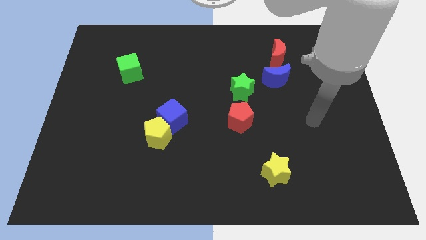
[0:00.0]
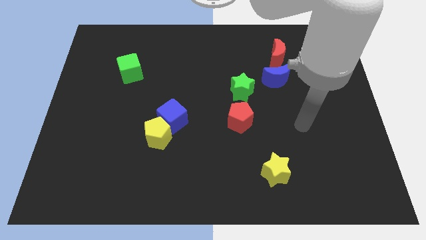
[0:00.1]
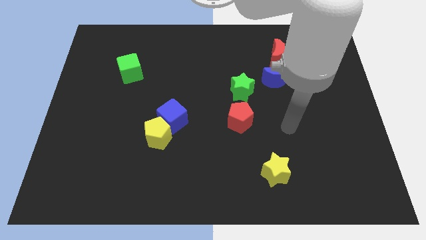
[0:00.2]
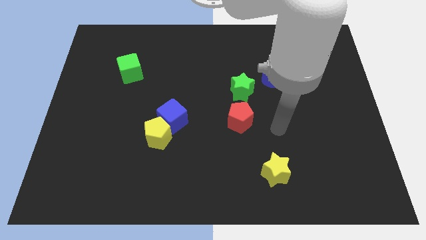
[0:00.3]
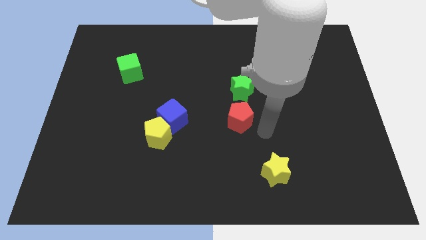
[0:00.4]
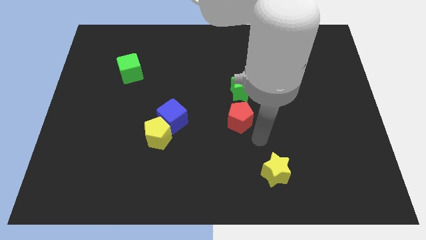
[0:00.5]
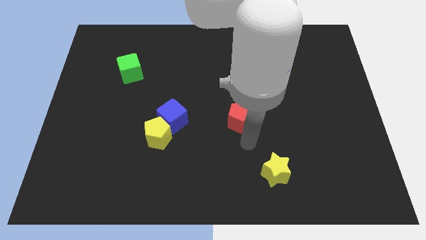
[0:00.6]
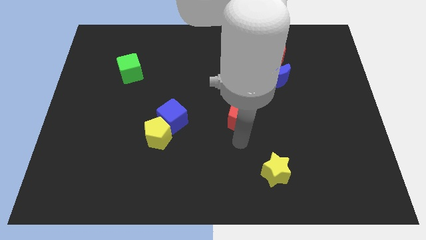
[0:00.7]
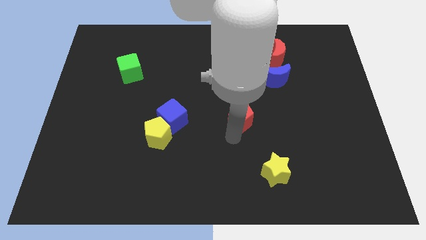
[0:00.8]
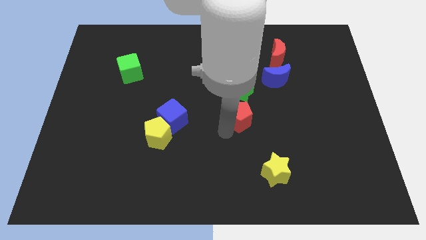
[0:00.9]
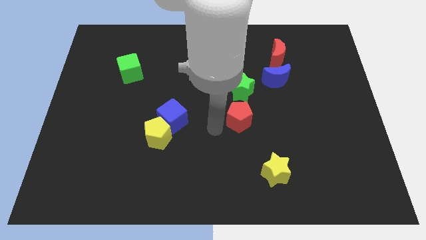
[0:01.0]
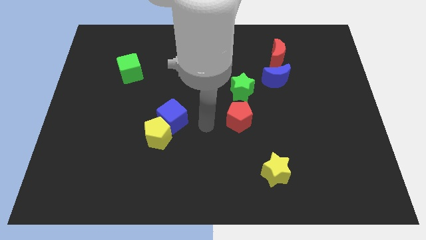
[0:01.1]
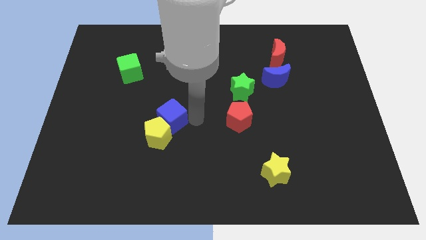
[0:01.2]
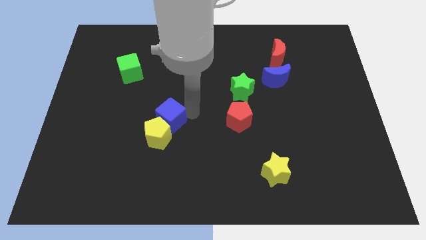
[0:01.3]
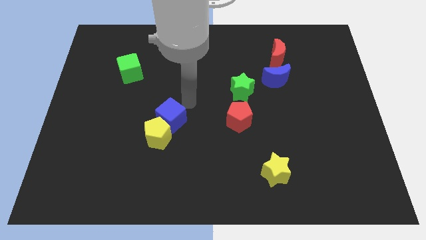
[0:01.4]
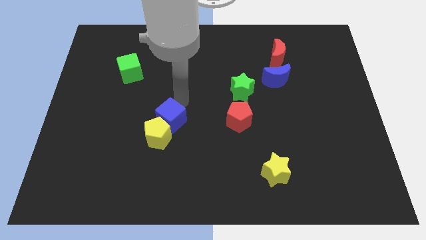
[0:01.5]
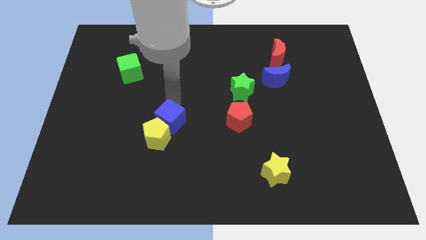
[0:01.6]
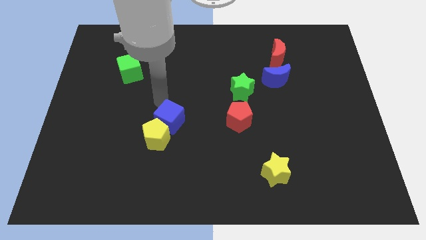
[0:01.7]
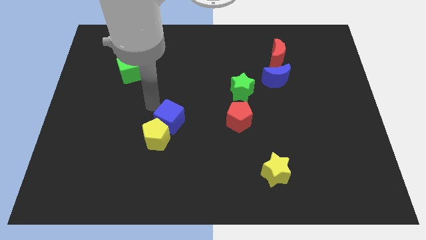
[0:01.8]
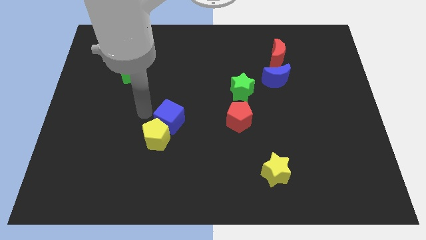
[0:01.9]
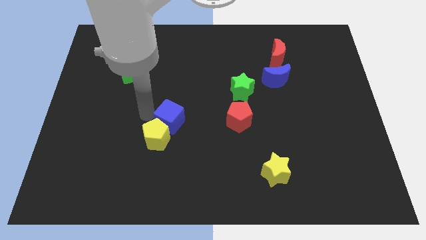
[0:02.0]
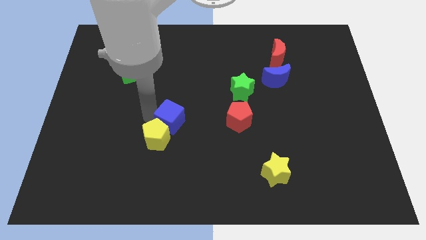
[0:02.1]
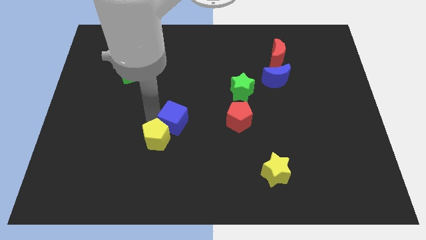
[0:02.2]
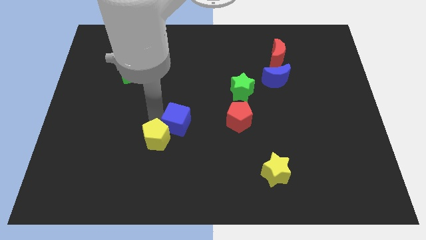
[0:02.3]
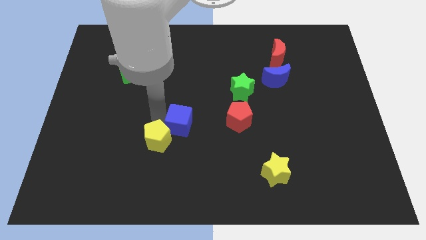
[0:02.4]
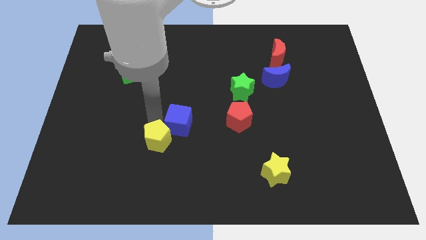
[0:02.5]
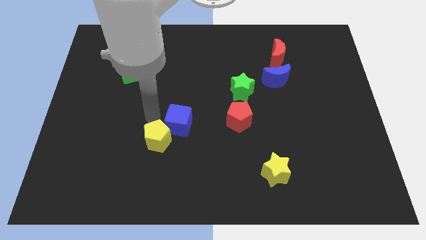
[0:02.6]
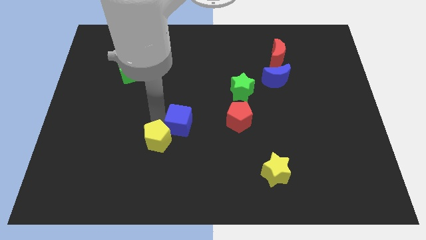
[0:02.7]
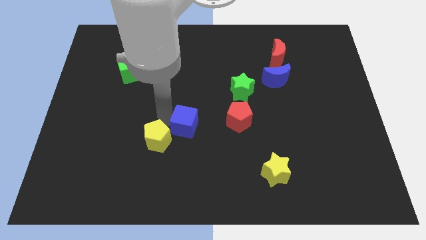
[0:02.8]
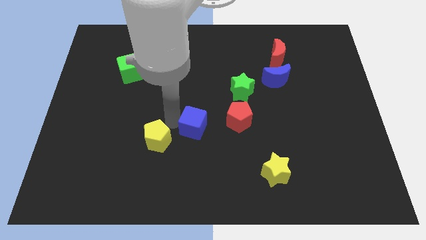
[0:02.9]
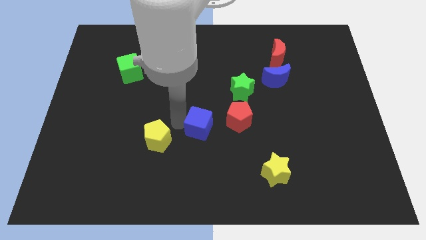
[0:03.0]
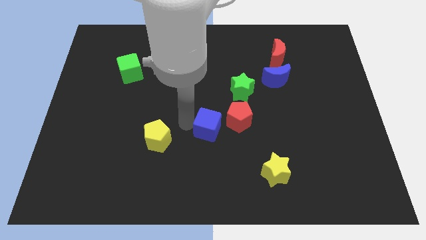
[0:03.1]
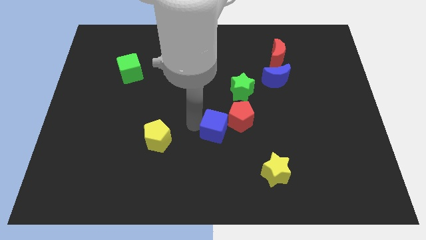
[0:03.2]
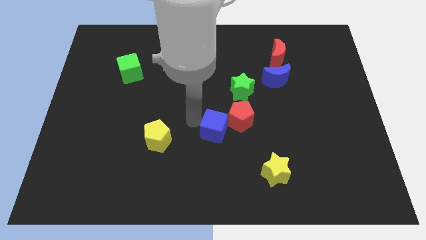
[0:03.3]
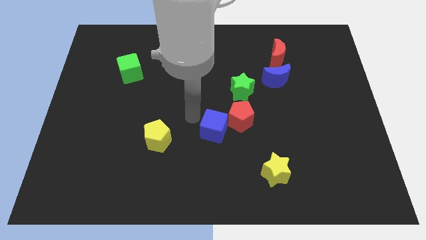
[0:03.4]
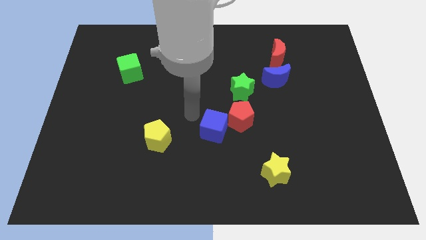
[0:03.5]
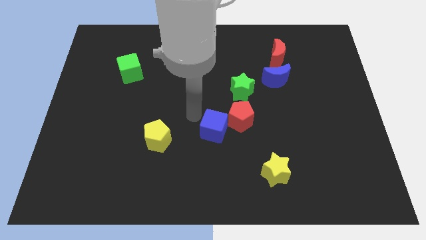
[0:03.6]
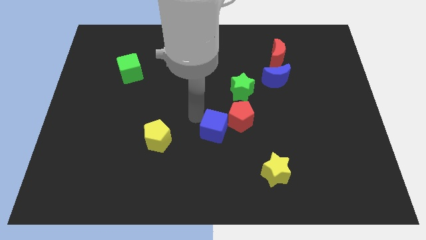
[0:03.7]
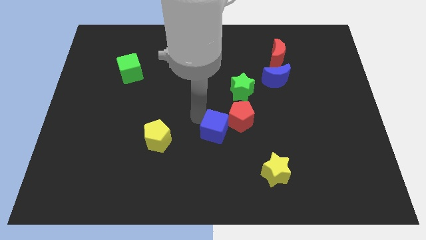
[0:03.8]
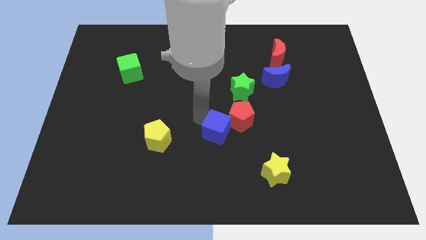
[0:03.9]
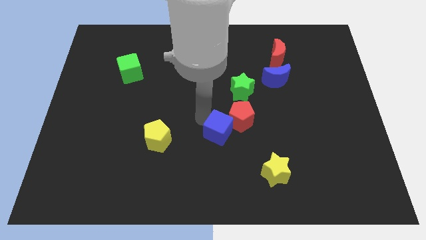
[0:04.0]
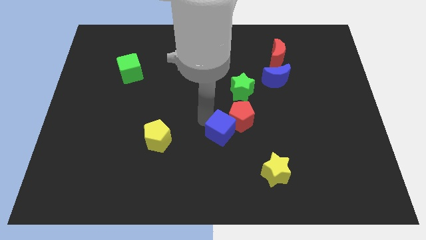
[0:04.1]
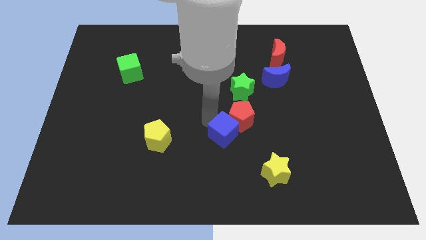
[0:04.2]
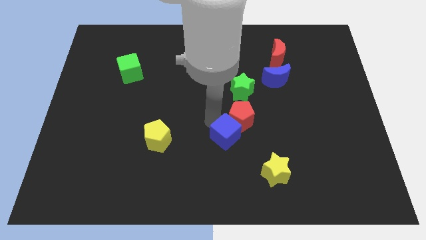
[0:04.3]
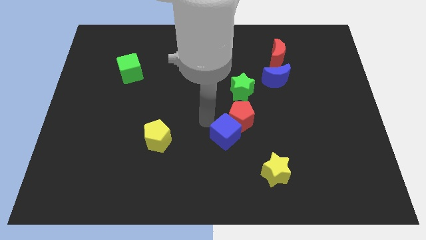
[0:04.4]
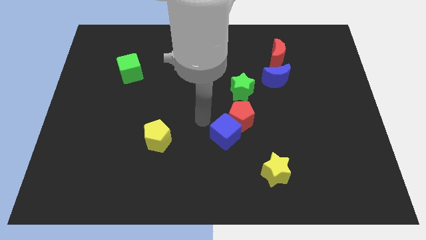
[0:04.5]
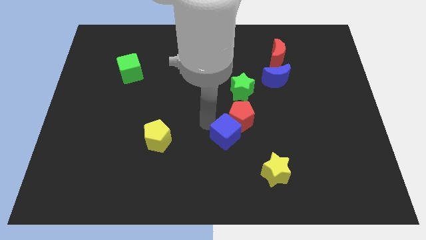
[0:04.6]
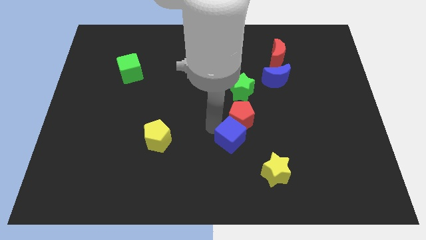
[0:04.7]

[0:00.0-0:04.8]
push the blue cube diagonally up and to the left of the yellow star

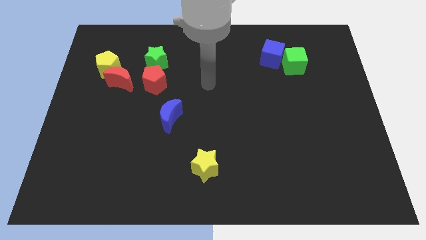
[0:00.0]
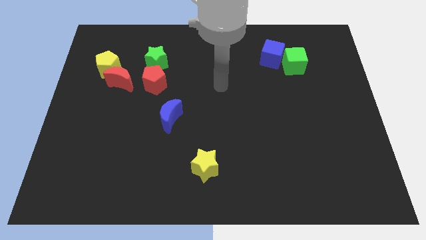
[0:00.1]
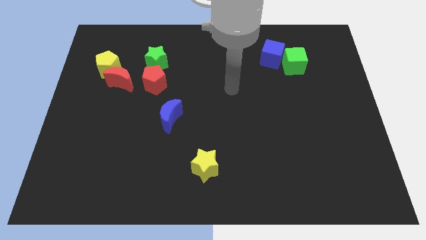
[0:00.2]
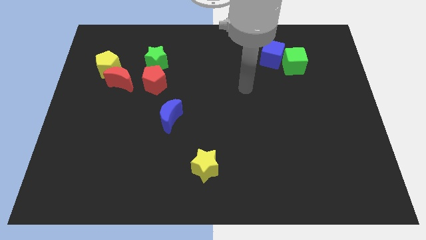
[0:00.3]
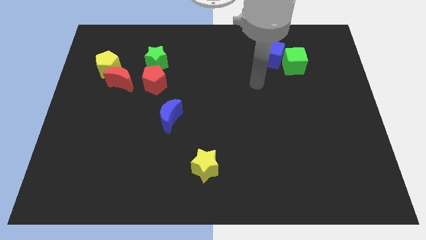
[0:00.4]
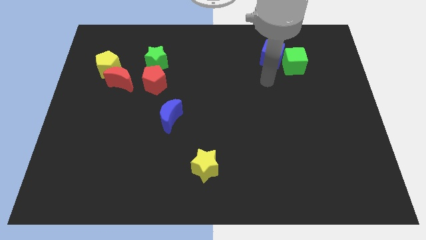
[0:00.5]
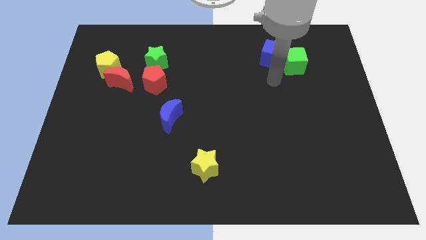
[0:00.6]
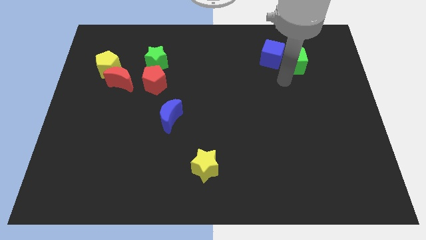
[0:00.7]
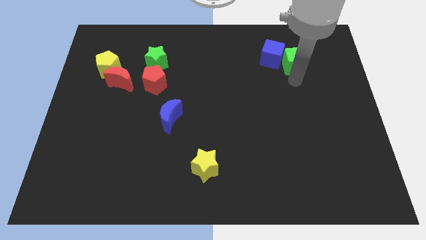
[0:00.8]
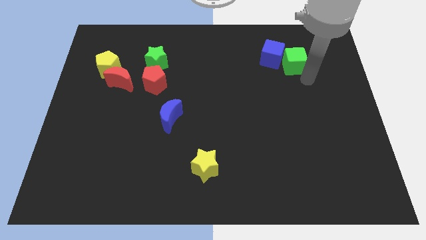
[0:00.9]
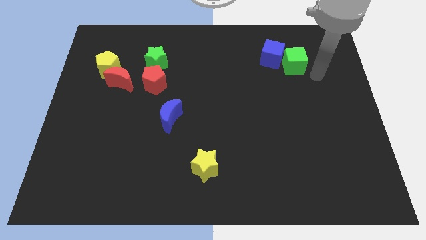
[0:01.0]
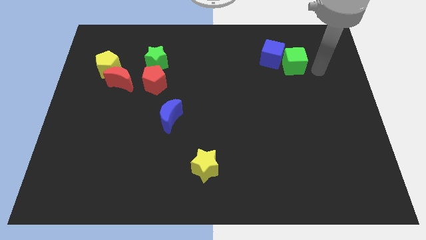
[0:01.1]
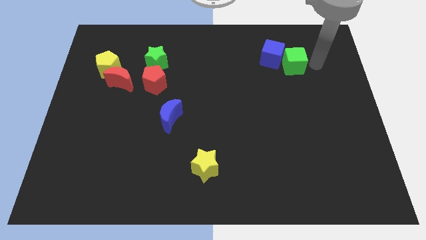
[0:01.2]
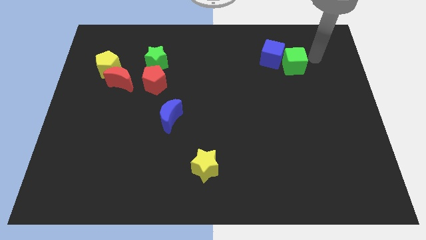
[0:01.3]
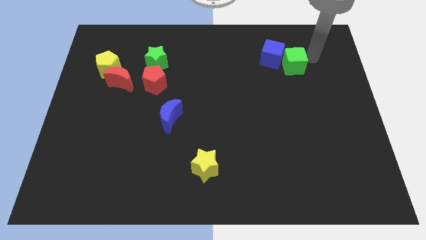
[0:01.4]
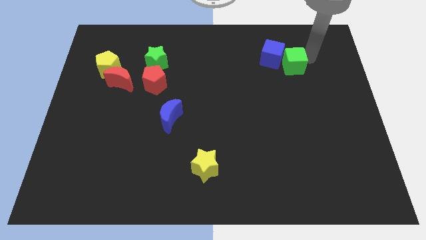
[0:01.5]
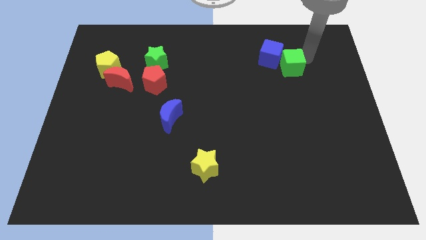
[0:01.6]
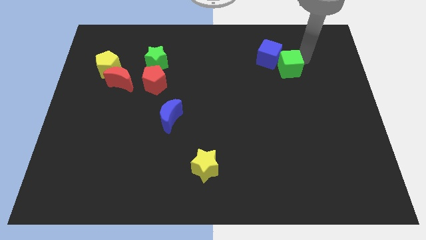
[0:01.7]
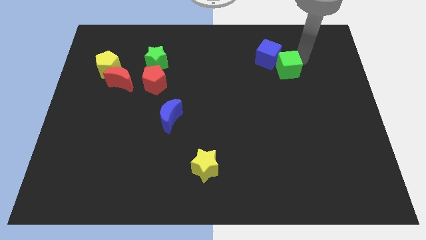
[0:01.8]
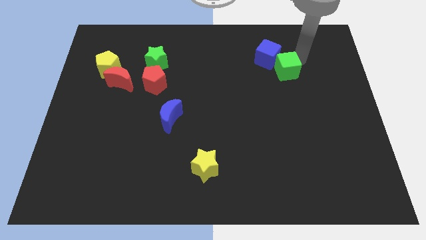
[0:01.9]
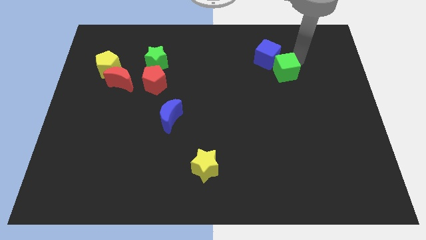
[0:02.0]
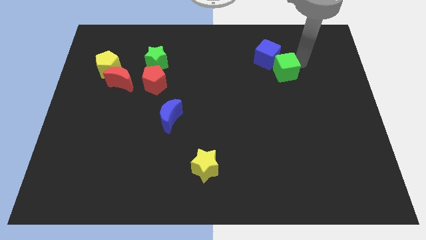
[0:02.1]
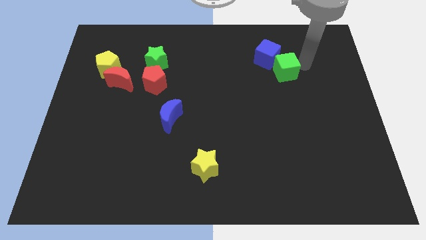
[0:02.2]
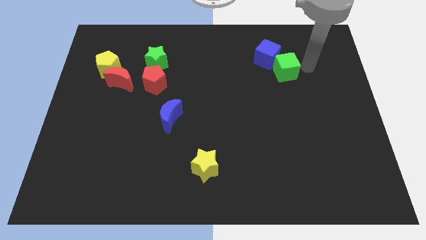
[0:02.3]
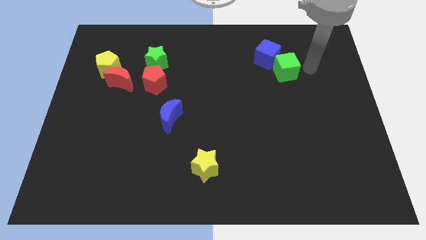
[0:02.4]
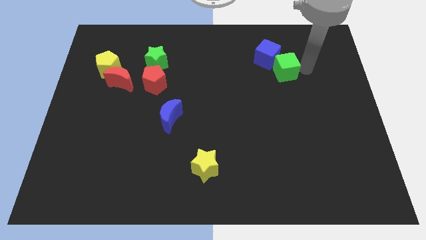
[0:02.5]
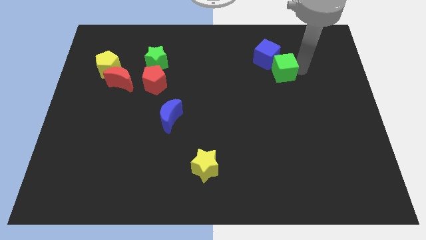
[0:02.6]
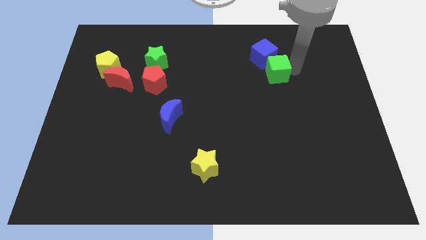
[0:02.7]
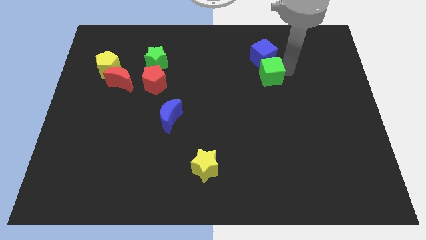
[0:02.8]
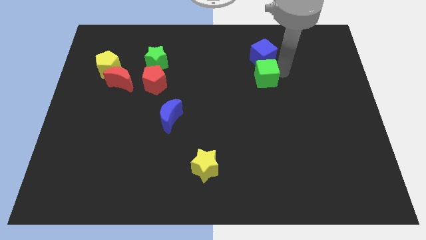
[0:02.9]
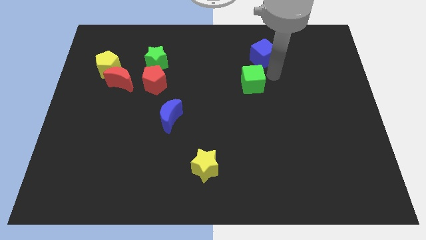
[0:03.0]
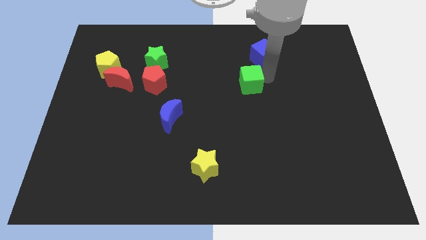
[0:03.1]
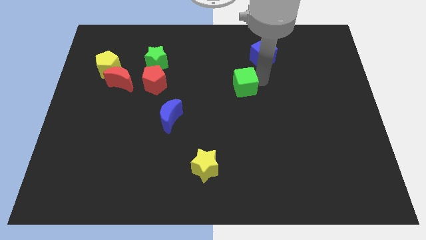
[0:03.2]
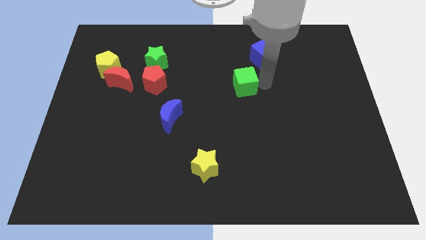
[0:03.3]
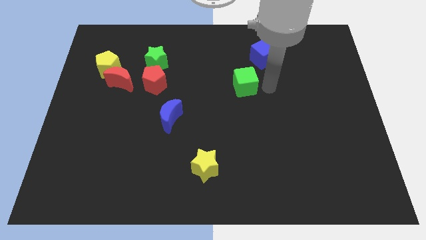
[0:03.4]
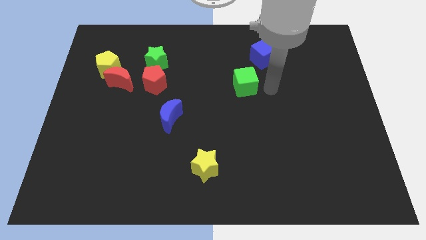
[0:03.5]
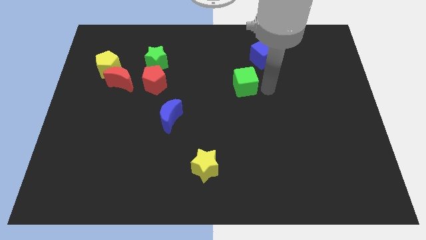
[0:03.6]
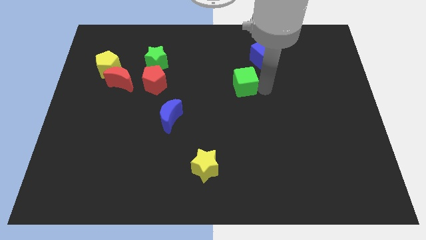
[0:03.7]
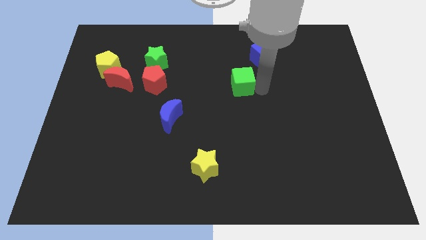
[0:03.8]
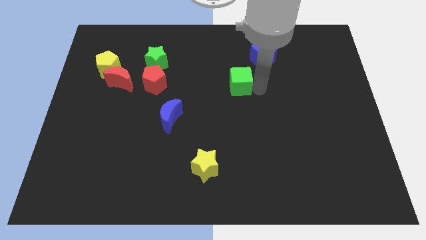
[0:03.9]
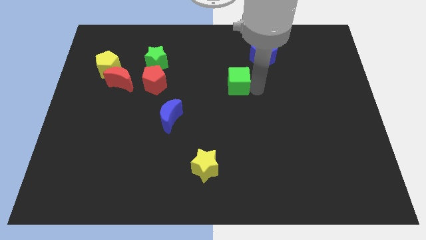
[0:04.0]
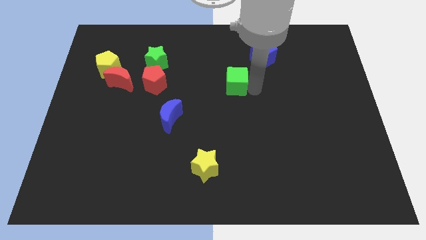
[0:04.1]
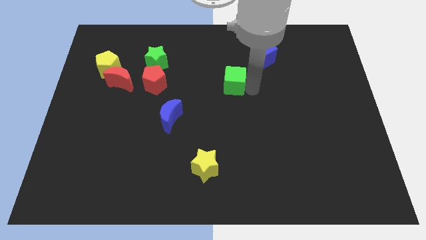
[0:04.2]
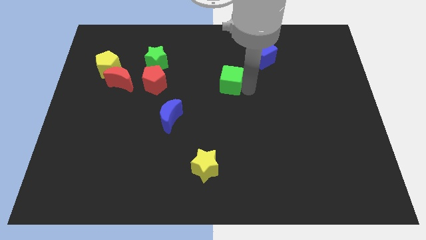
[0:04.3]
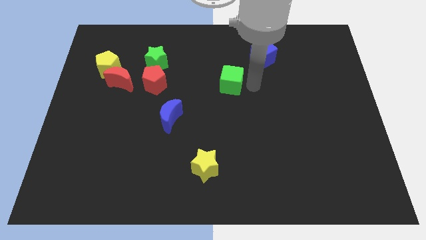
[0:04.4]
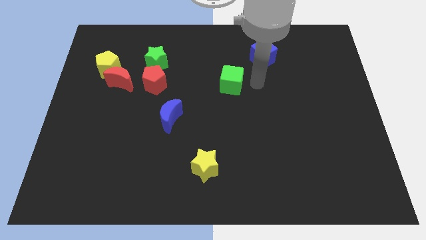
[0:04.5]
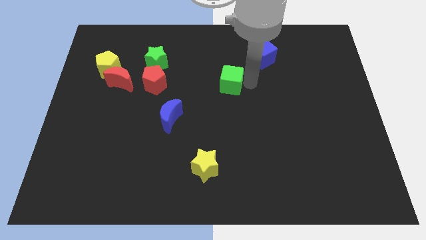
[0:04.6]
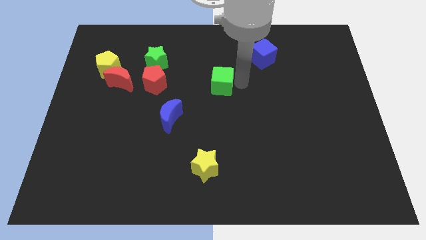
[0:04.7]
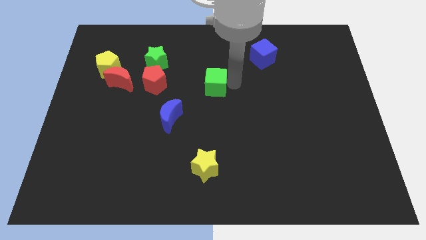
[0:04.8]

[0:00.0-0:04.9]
slide the green cube to the right of the red pentagon
